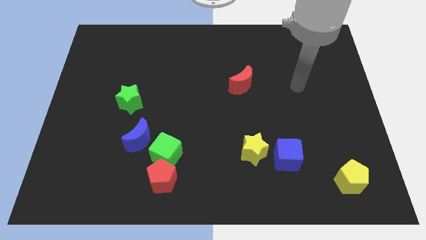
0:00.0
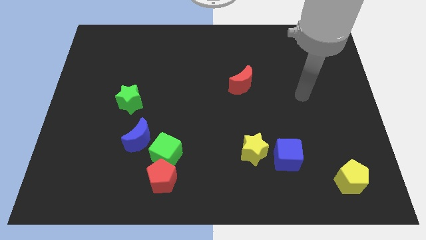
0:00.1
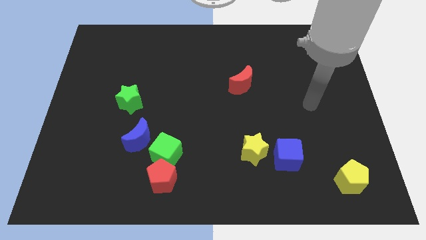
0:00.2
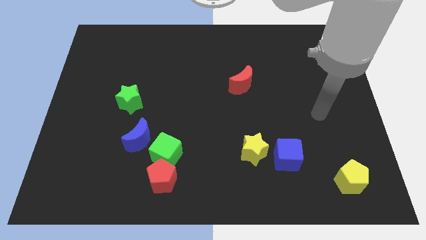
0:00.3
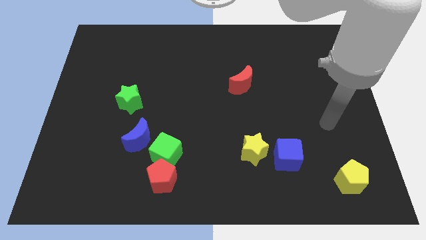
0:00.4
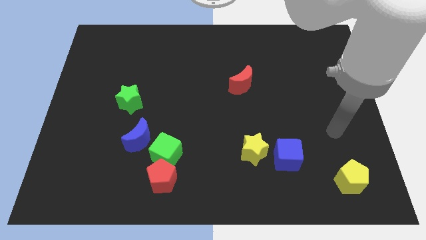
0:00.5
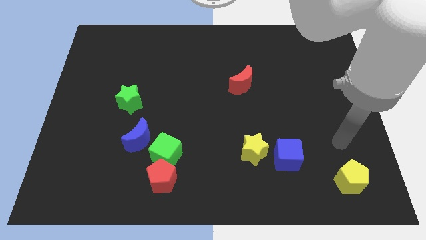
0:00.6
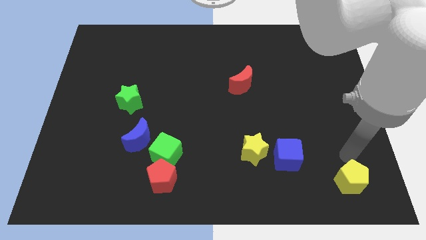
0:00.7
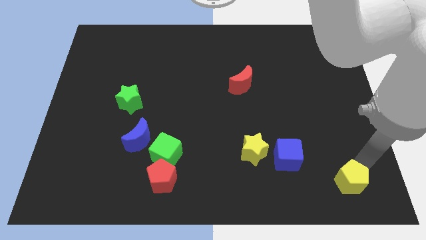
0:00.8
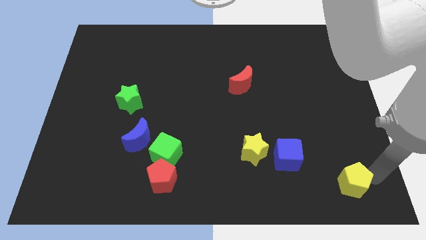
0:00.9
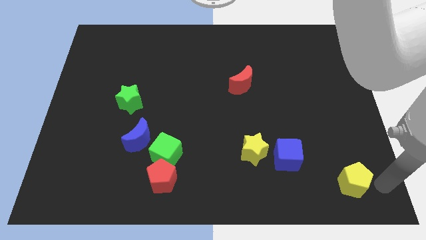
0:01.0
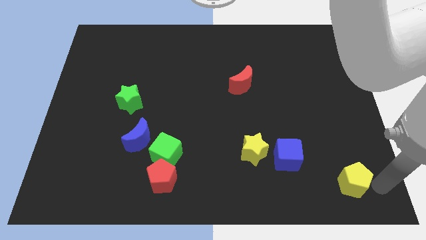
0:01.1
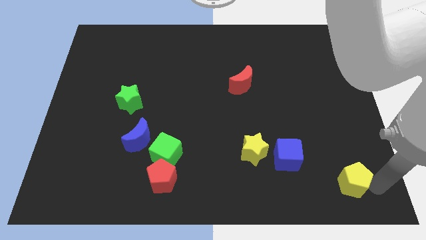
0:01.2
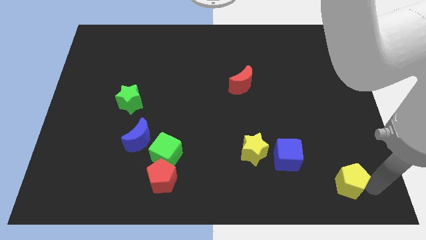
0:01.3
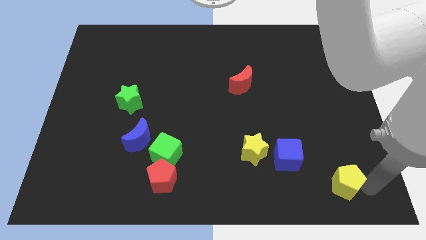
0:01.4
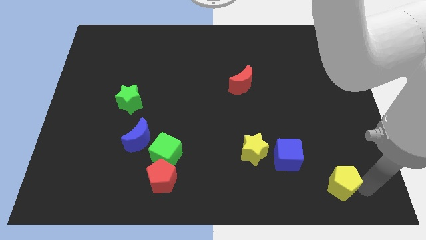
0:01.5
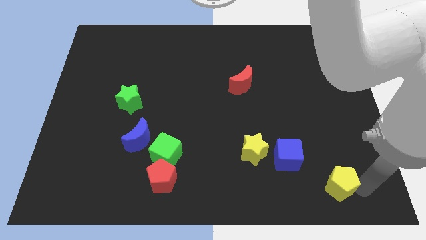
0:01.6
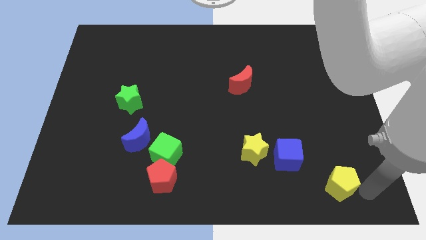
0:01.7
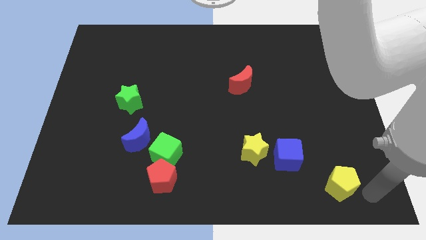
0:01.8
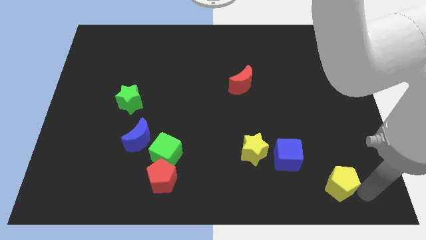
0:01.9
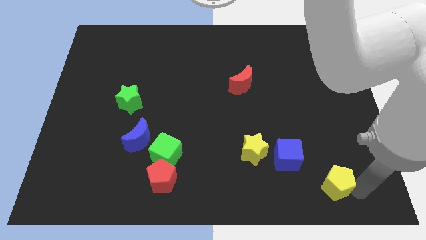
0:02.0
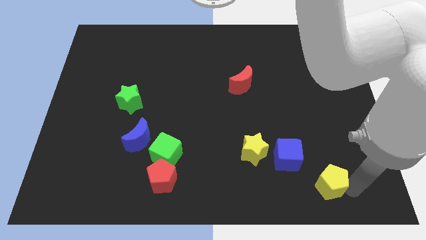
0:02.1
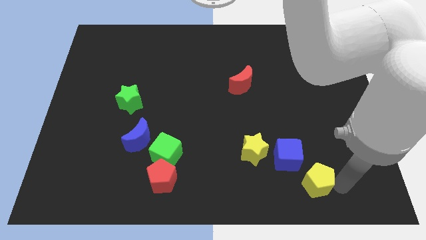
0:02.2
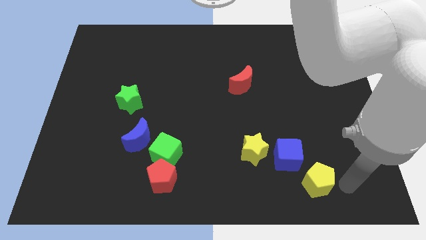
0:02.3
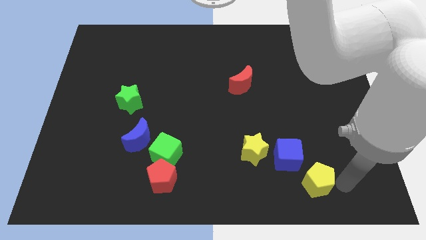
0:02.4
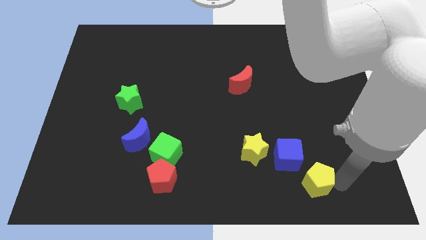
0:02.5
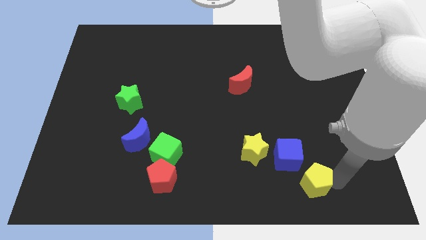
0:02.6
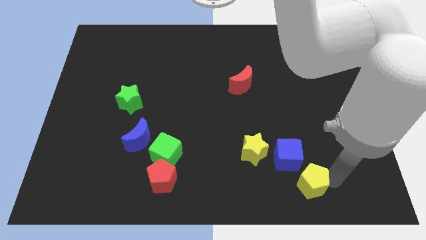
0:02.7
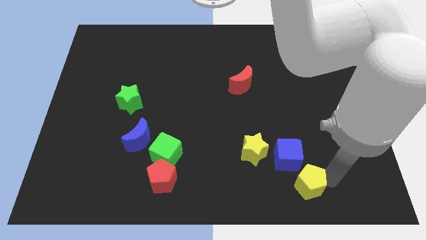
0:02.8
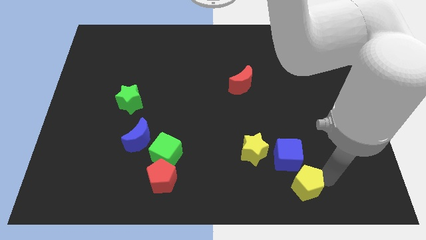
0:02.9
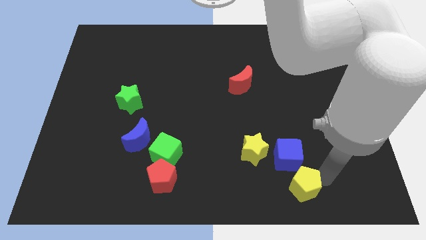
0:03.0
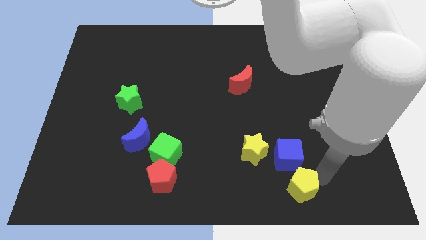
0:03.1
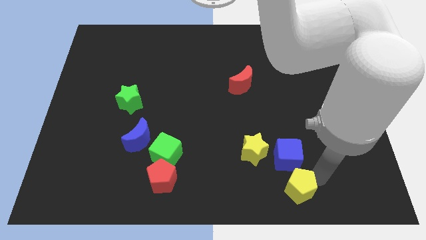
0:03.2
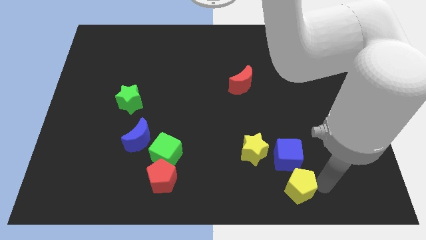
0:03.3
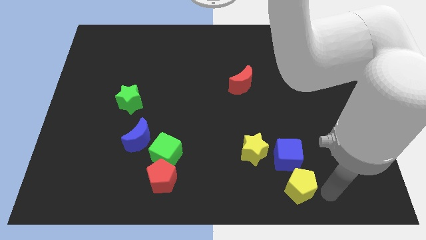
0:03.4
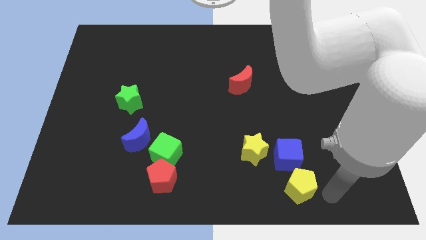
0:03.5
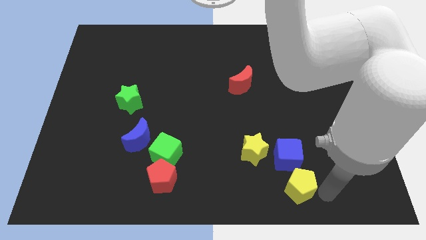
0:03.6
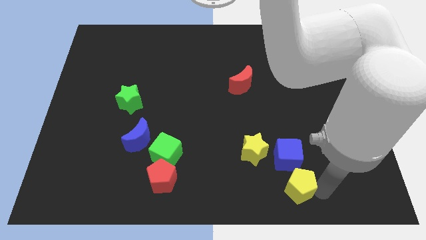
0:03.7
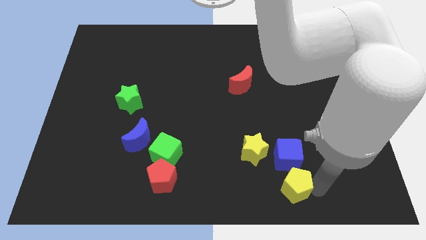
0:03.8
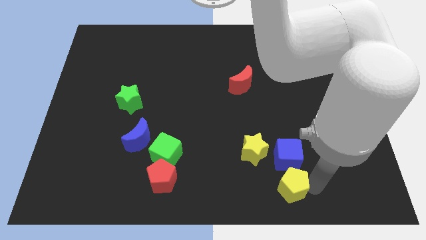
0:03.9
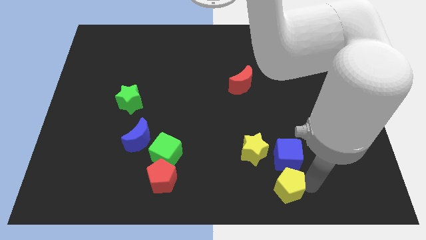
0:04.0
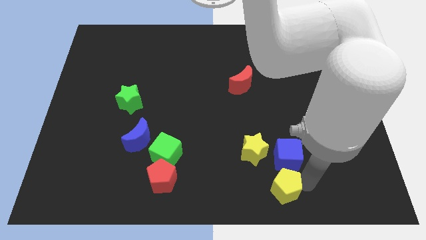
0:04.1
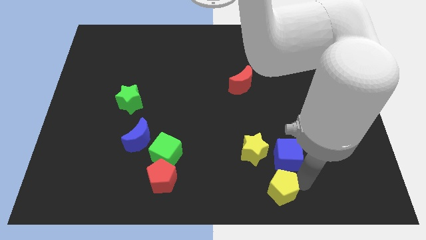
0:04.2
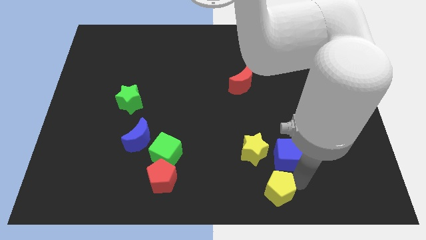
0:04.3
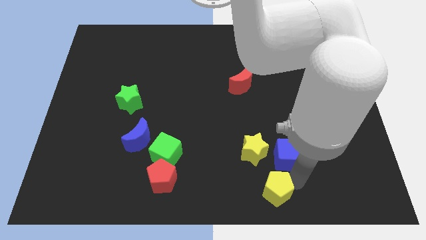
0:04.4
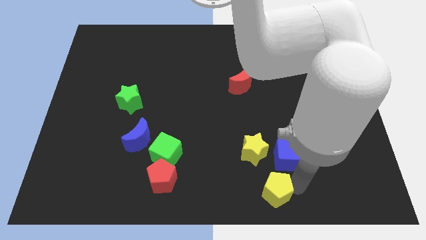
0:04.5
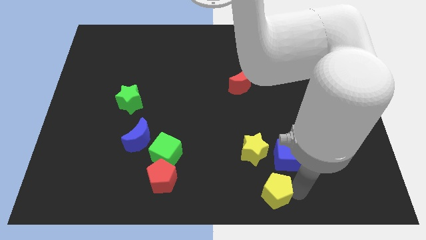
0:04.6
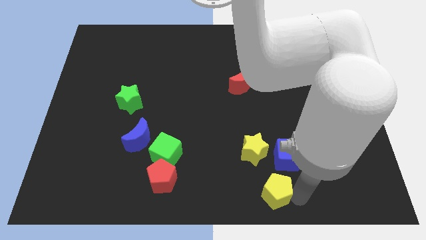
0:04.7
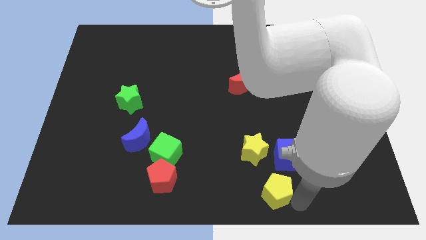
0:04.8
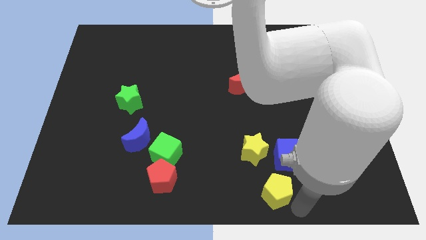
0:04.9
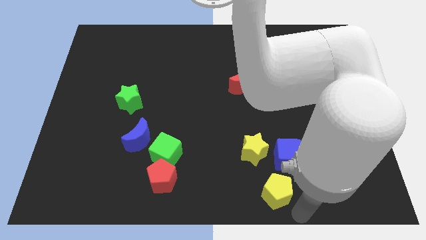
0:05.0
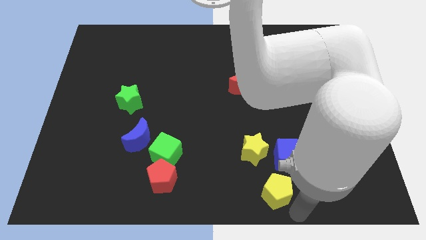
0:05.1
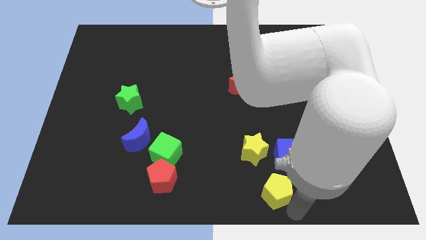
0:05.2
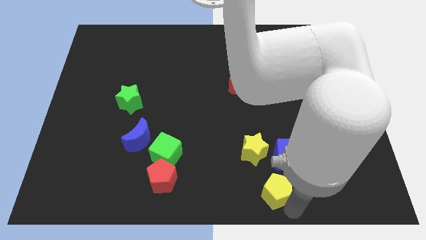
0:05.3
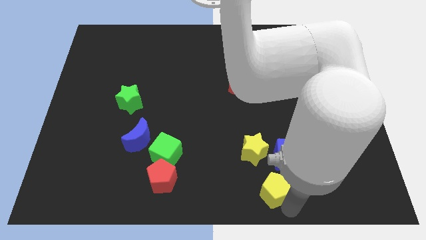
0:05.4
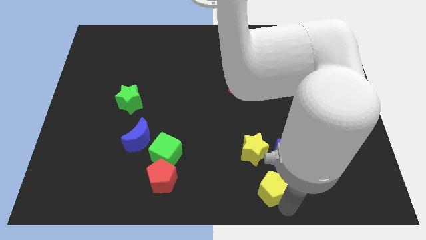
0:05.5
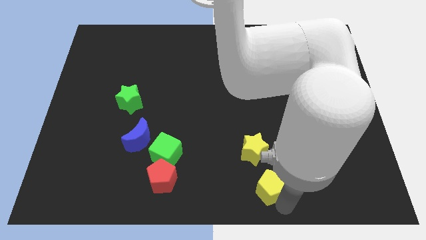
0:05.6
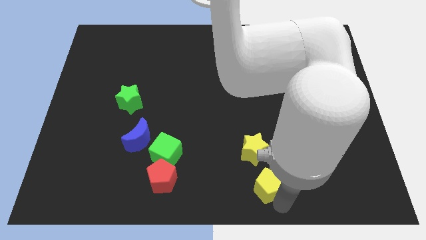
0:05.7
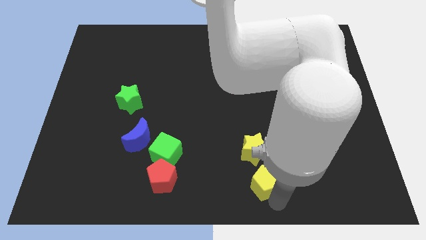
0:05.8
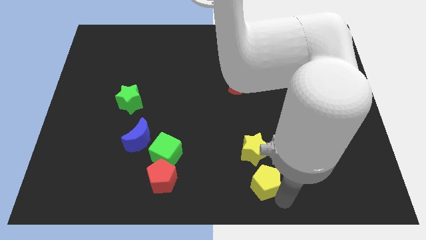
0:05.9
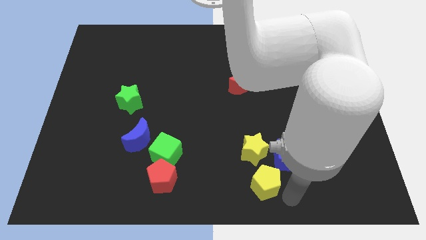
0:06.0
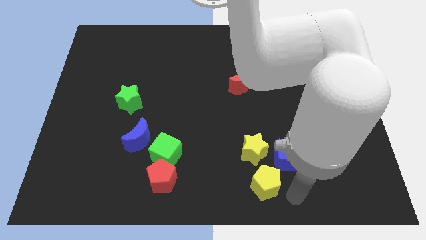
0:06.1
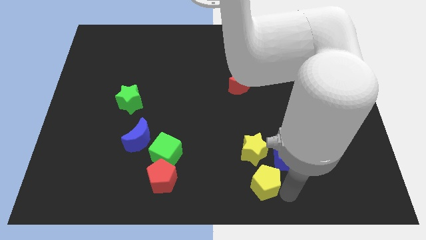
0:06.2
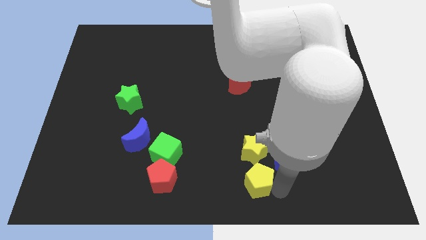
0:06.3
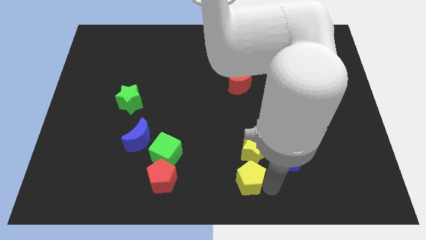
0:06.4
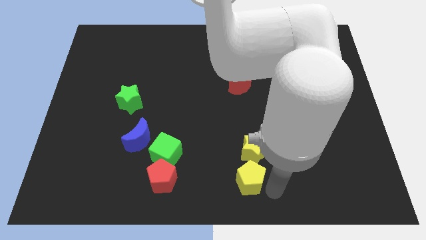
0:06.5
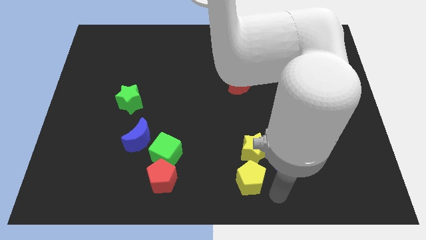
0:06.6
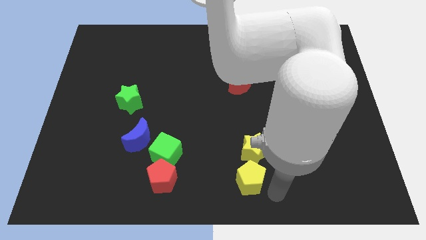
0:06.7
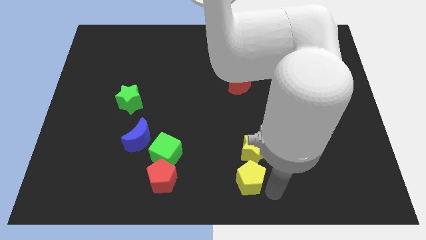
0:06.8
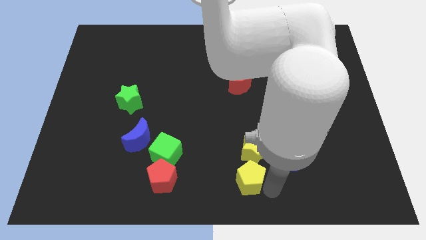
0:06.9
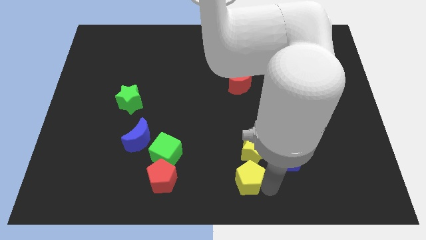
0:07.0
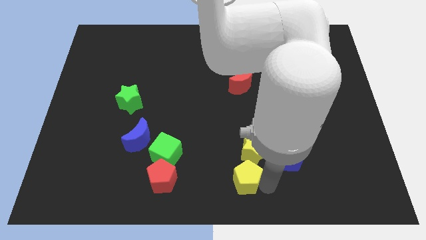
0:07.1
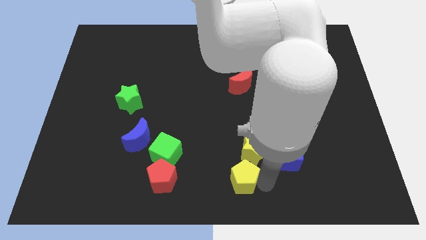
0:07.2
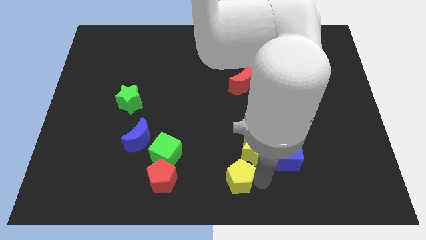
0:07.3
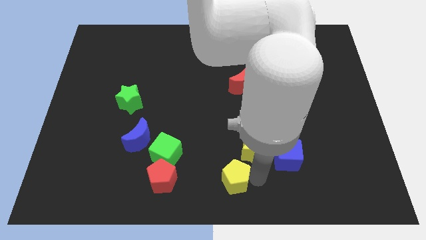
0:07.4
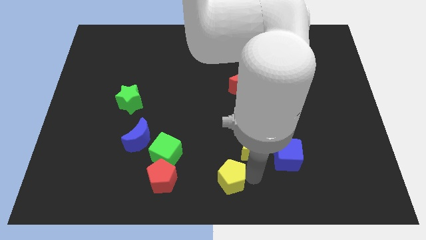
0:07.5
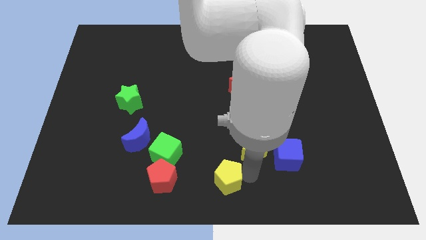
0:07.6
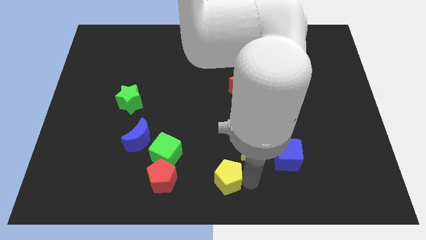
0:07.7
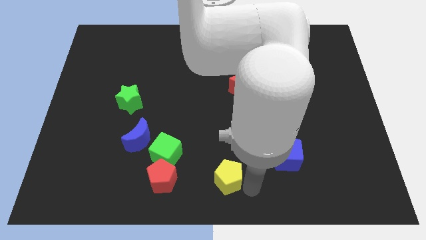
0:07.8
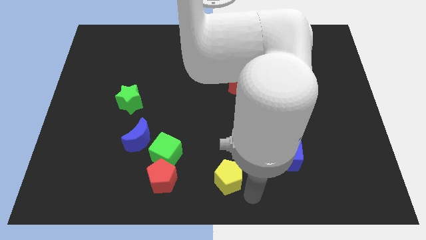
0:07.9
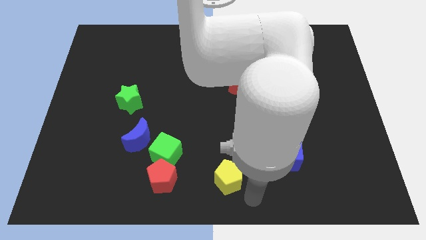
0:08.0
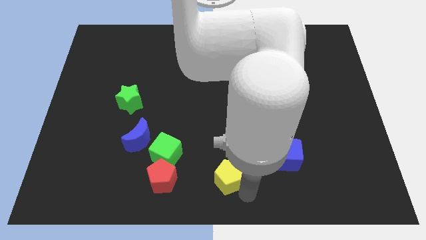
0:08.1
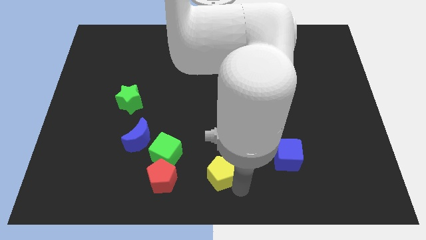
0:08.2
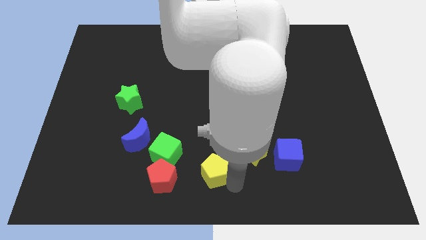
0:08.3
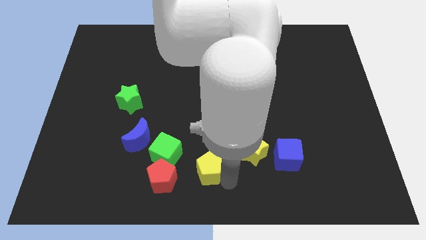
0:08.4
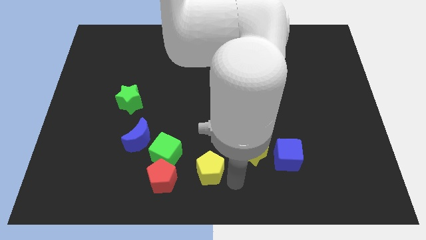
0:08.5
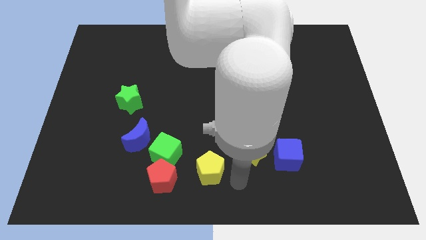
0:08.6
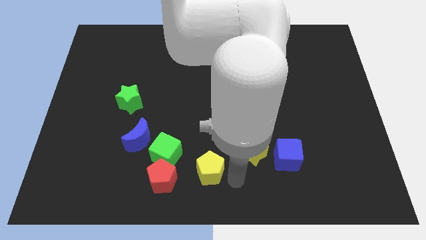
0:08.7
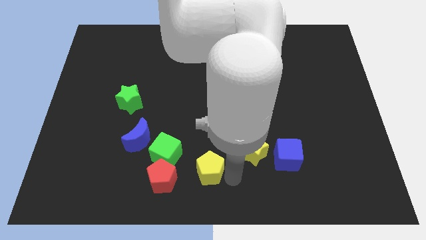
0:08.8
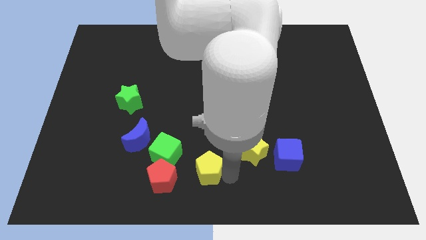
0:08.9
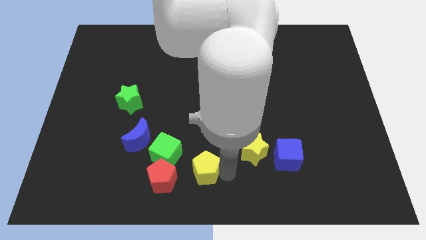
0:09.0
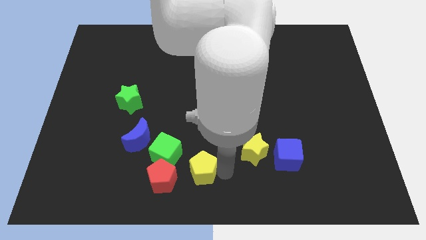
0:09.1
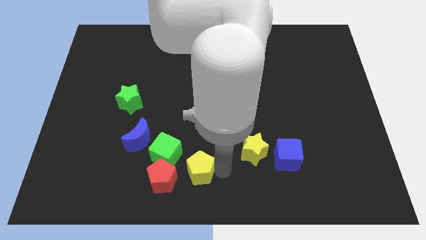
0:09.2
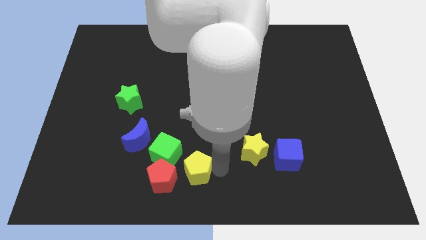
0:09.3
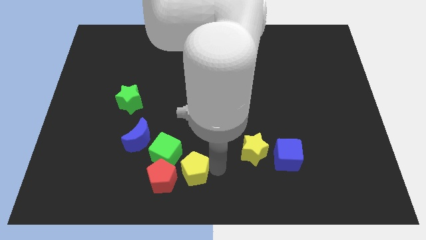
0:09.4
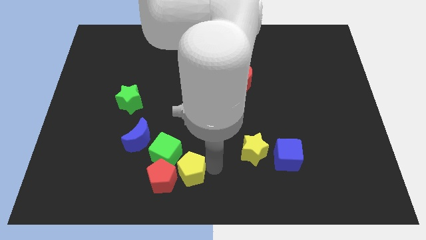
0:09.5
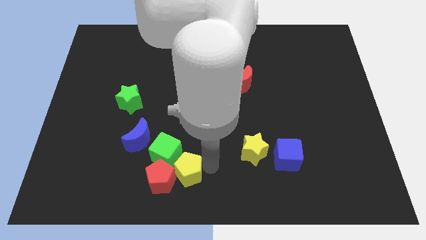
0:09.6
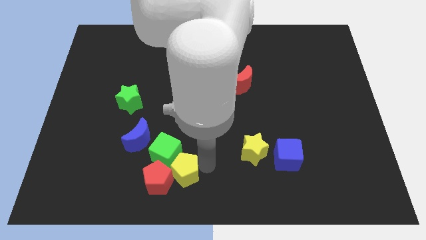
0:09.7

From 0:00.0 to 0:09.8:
slide the yellow pentagon next to the green cube
